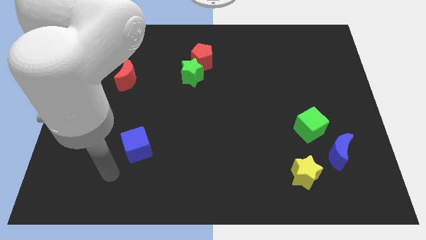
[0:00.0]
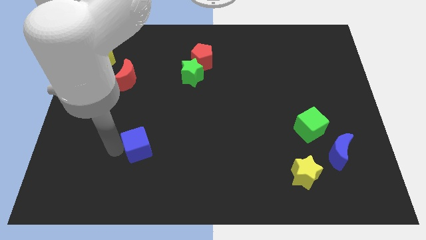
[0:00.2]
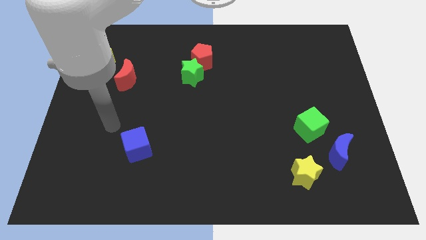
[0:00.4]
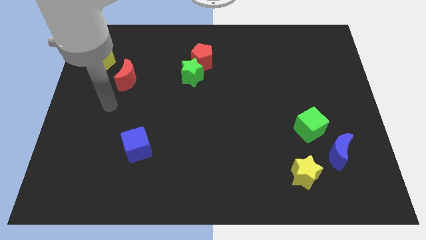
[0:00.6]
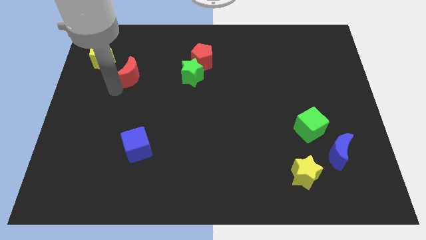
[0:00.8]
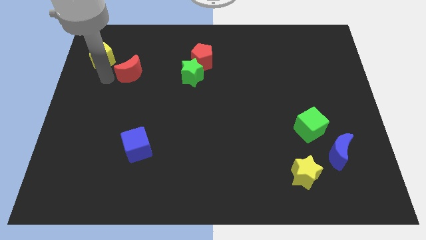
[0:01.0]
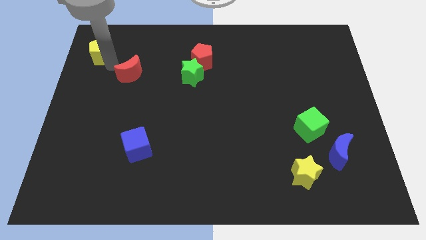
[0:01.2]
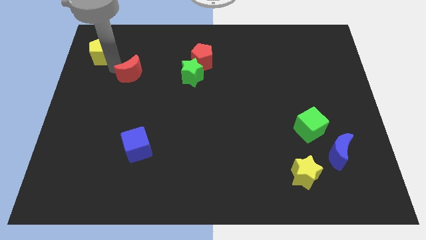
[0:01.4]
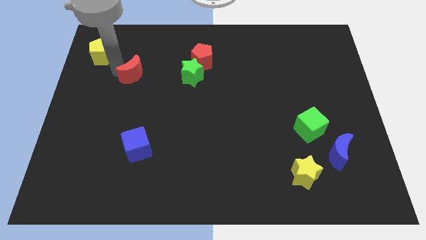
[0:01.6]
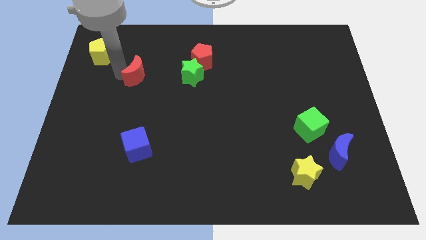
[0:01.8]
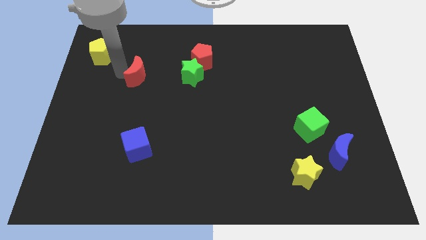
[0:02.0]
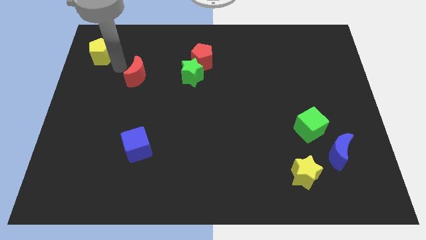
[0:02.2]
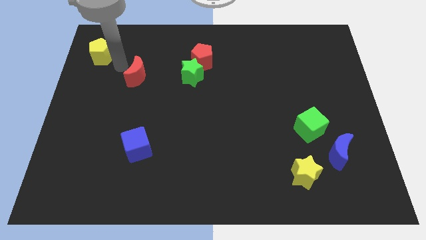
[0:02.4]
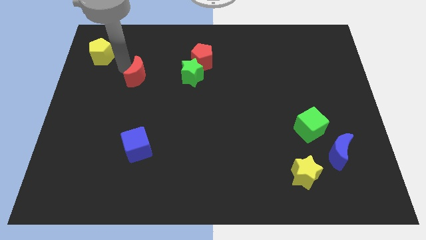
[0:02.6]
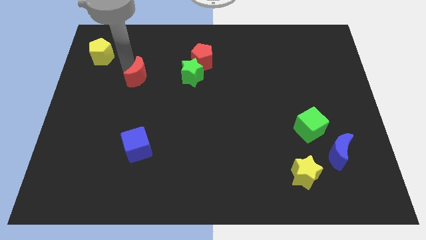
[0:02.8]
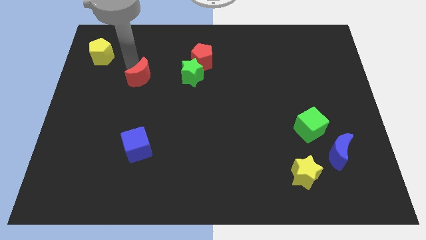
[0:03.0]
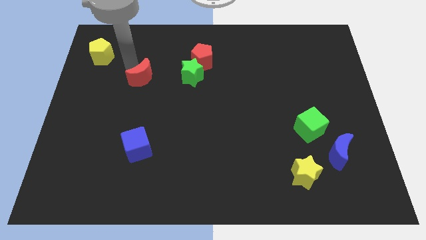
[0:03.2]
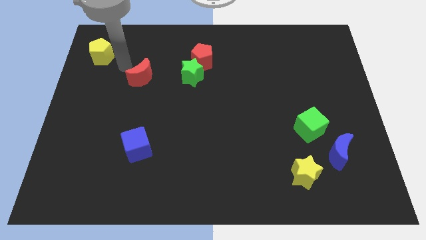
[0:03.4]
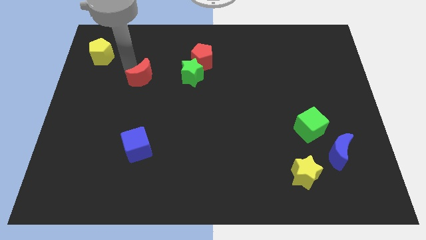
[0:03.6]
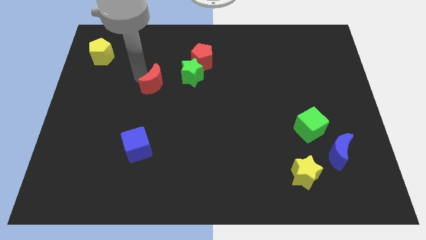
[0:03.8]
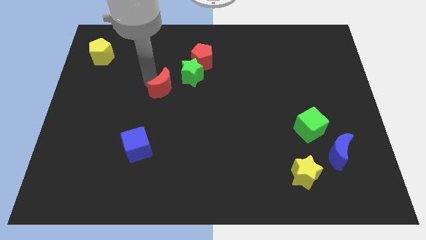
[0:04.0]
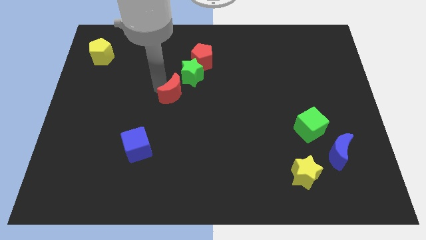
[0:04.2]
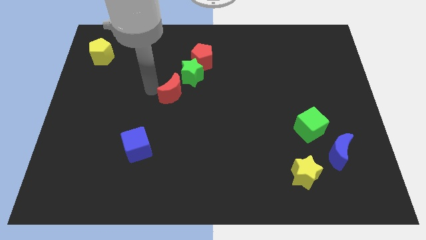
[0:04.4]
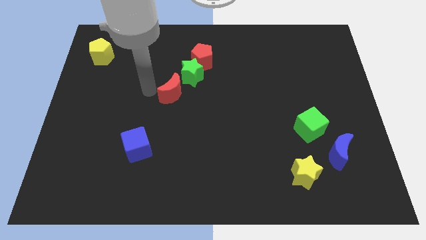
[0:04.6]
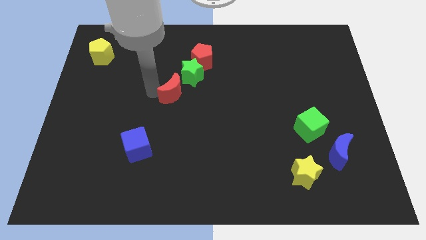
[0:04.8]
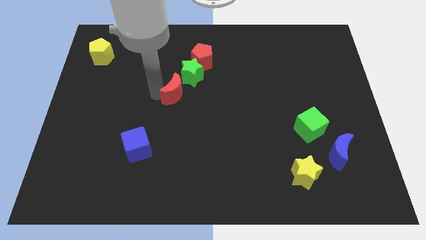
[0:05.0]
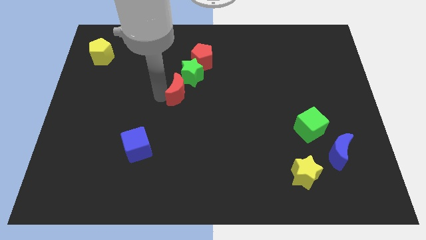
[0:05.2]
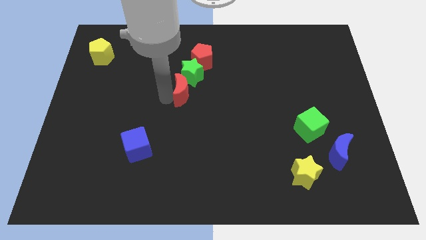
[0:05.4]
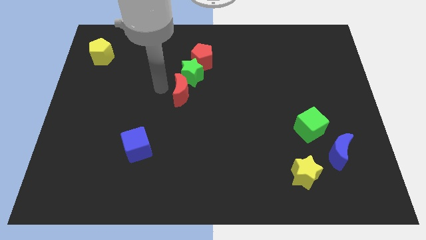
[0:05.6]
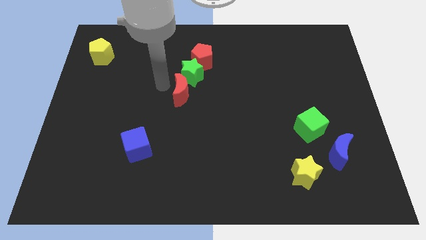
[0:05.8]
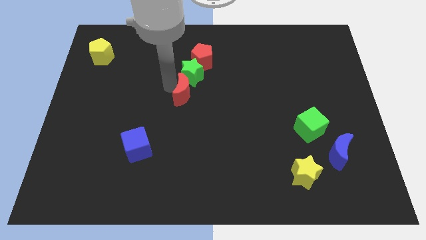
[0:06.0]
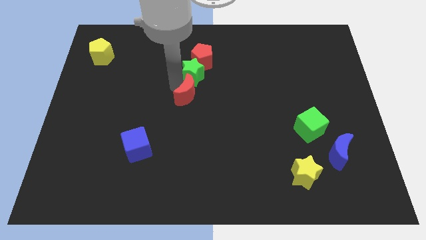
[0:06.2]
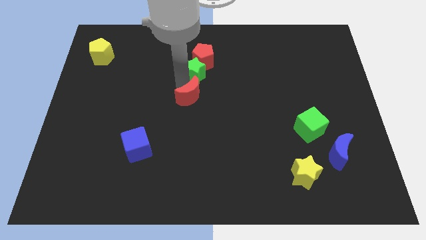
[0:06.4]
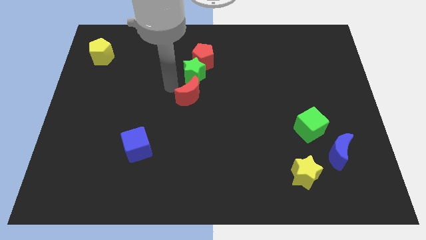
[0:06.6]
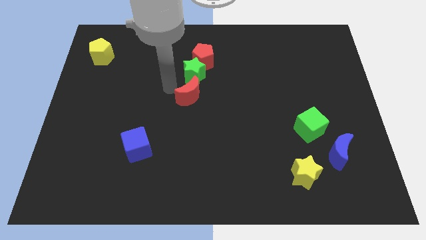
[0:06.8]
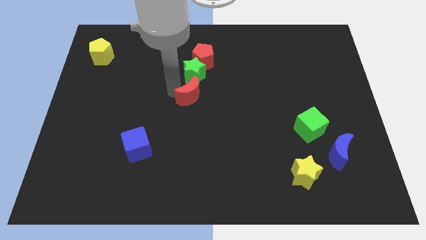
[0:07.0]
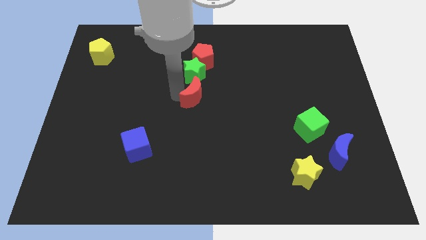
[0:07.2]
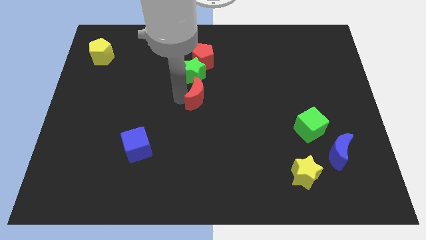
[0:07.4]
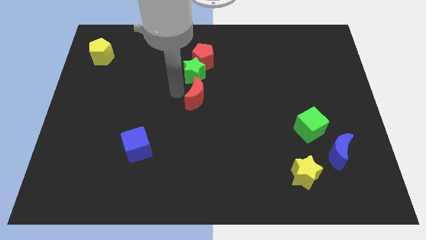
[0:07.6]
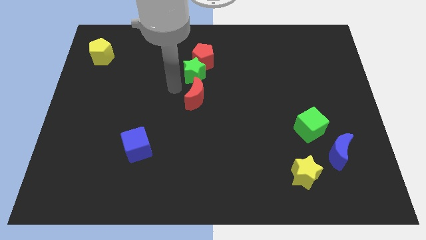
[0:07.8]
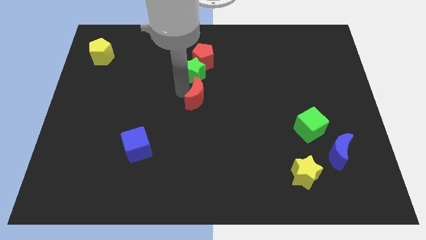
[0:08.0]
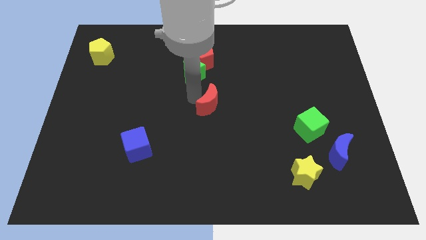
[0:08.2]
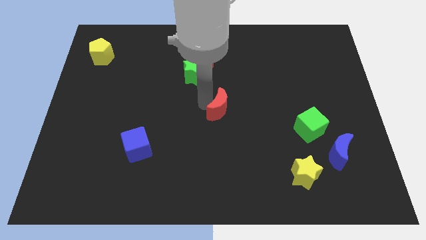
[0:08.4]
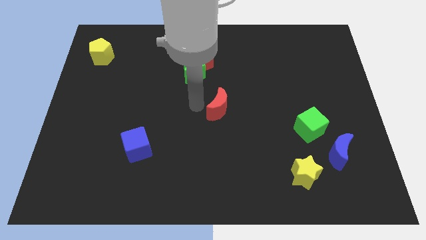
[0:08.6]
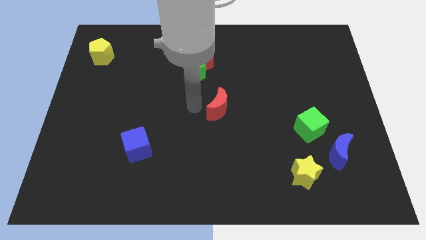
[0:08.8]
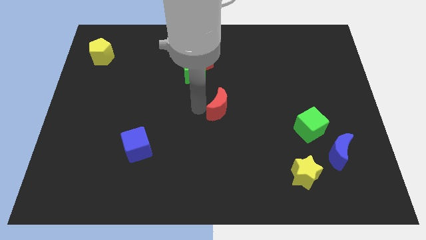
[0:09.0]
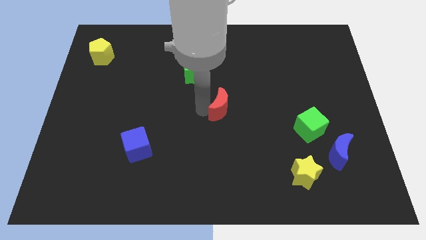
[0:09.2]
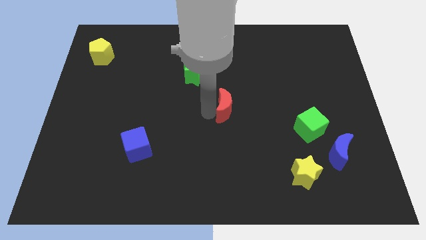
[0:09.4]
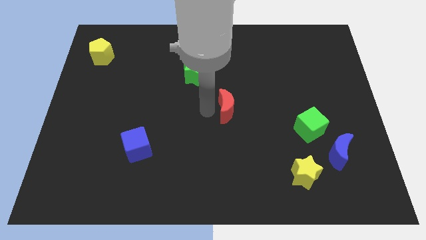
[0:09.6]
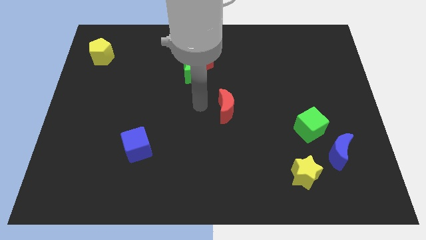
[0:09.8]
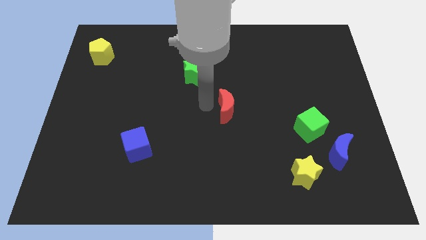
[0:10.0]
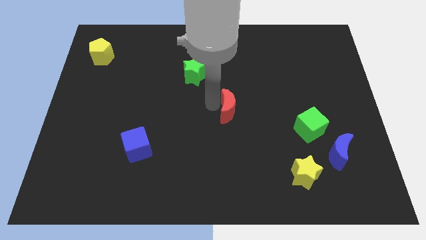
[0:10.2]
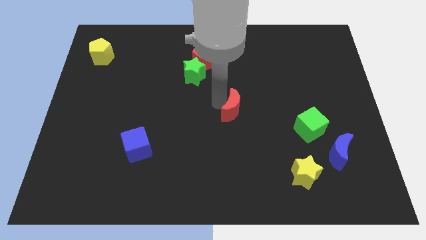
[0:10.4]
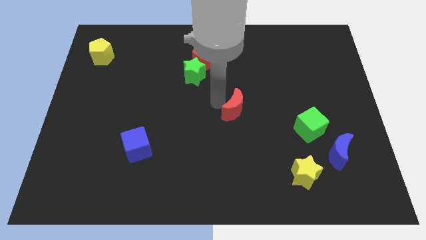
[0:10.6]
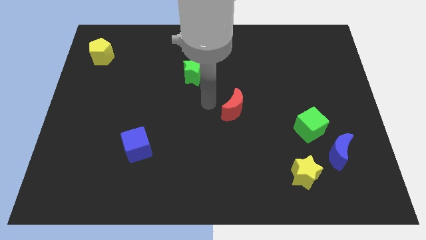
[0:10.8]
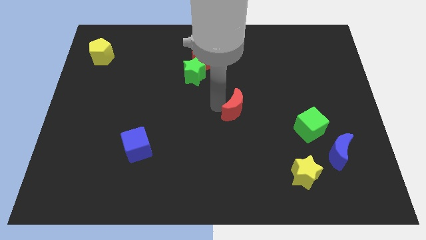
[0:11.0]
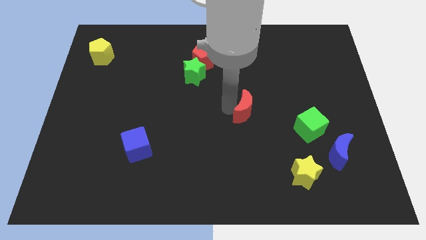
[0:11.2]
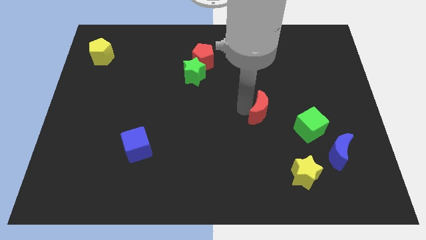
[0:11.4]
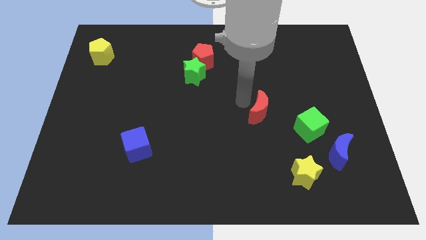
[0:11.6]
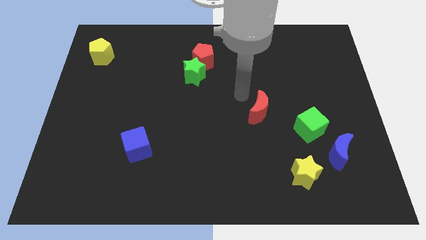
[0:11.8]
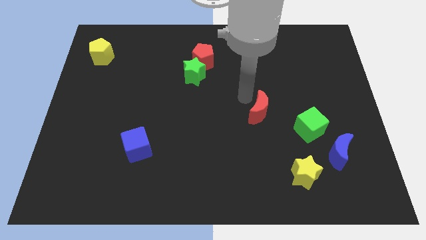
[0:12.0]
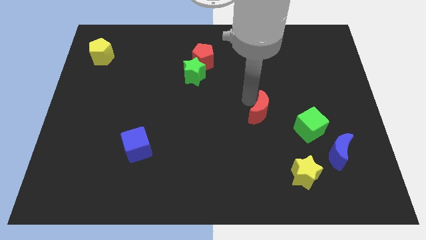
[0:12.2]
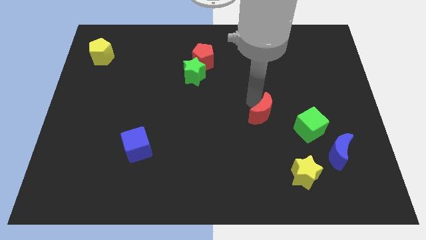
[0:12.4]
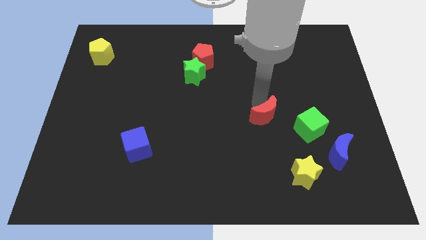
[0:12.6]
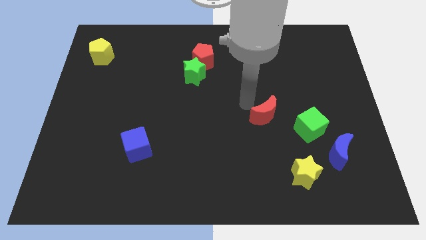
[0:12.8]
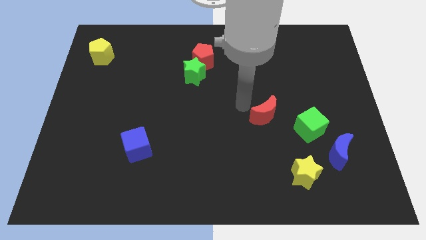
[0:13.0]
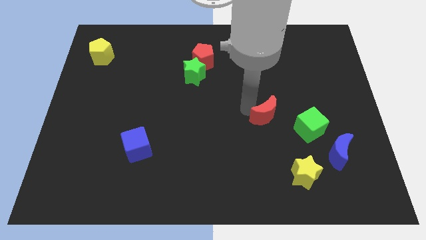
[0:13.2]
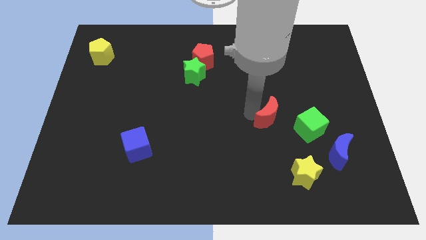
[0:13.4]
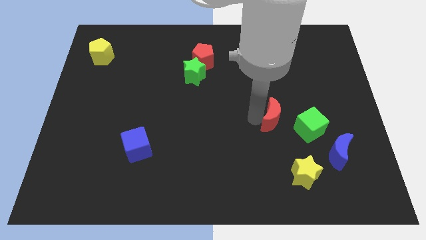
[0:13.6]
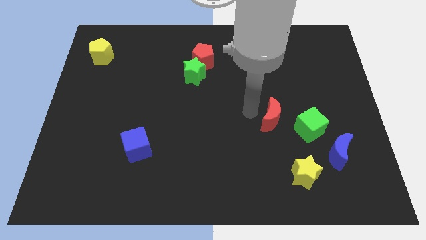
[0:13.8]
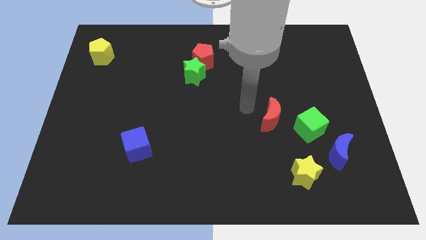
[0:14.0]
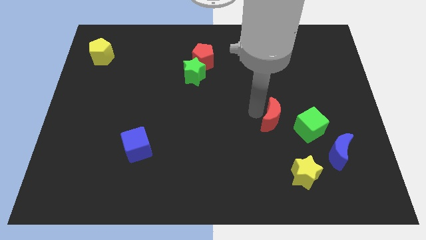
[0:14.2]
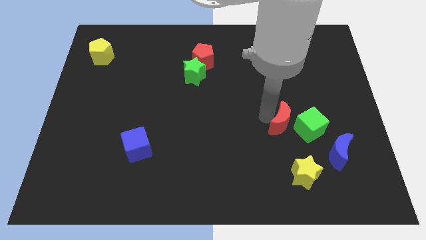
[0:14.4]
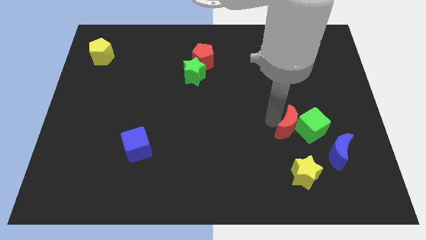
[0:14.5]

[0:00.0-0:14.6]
push the red moon next to the green cube
